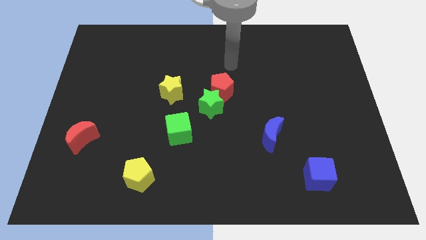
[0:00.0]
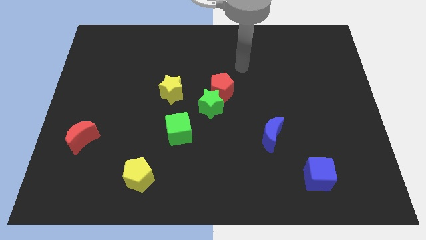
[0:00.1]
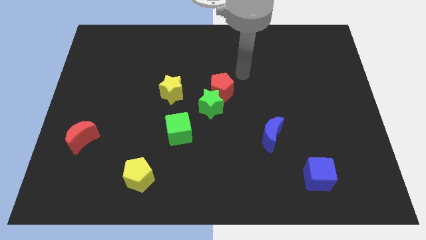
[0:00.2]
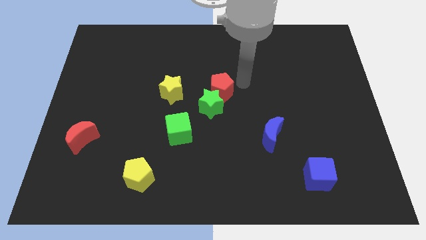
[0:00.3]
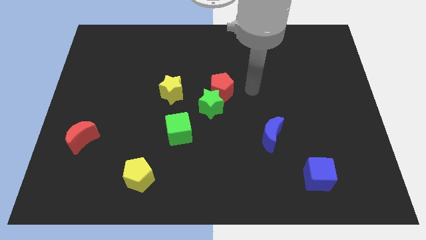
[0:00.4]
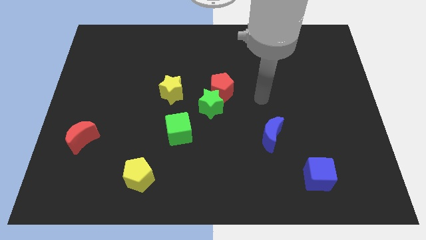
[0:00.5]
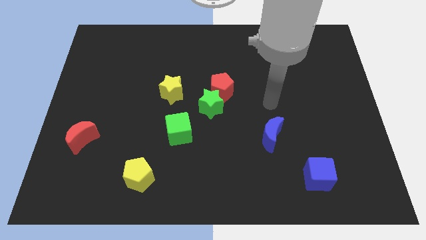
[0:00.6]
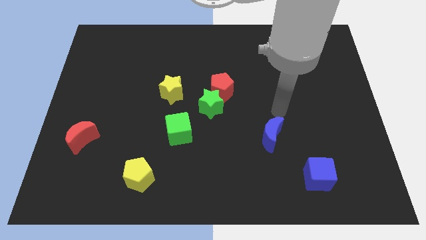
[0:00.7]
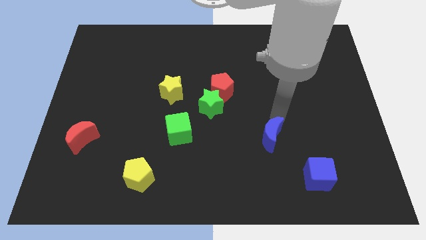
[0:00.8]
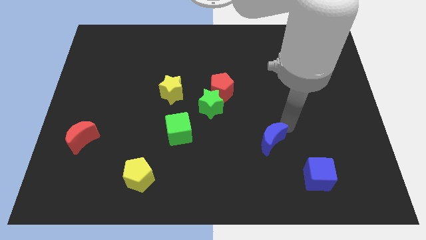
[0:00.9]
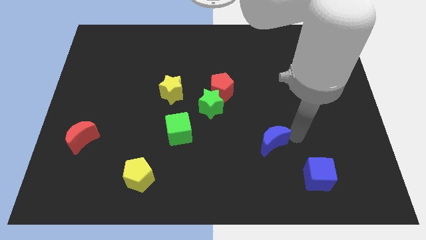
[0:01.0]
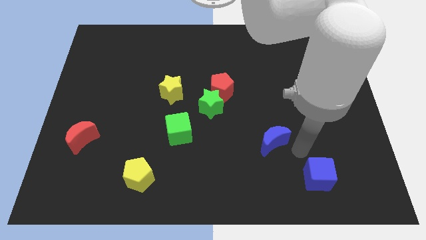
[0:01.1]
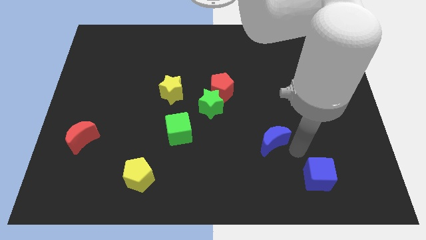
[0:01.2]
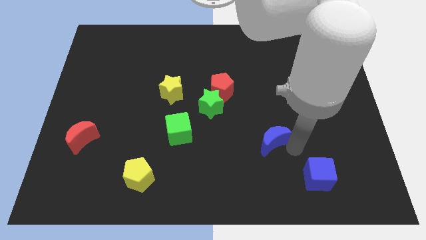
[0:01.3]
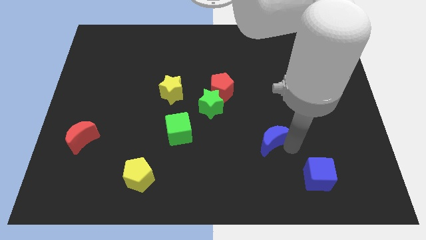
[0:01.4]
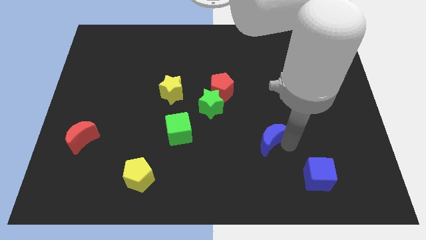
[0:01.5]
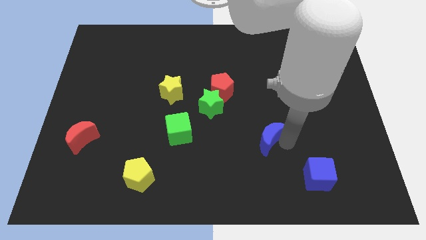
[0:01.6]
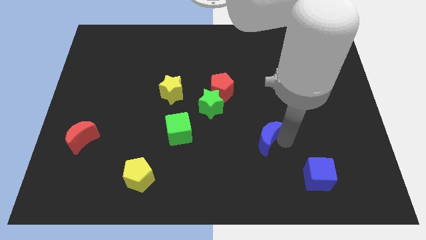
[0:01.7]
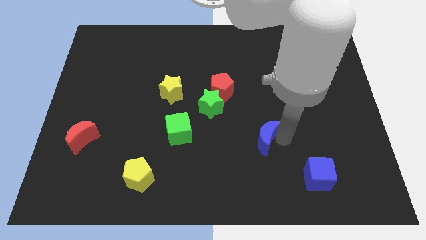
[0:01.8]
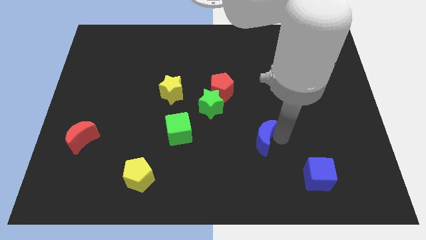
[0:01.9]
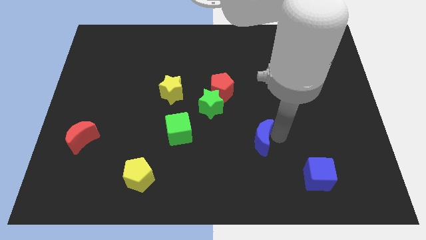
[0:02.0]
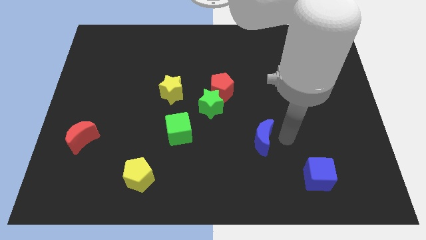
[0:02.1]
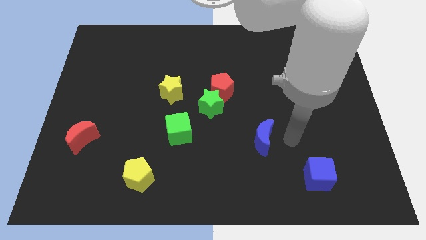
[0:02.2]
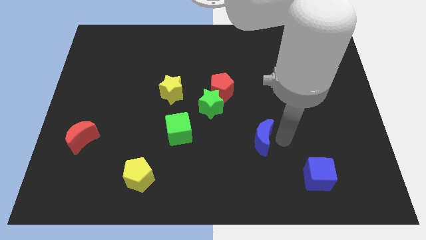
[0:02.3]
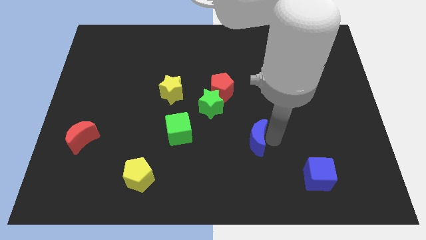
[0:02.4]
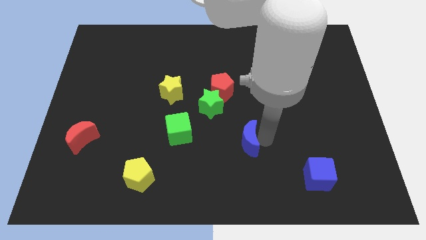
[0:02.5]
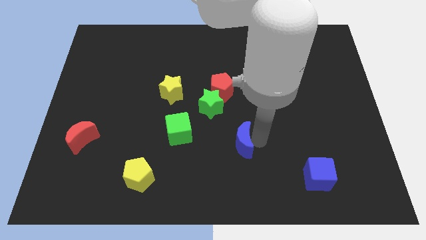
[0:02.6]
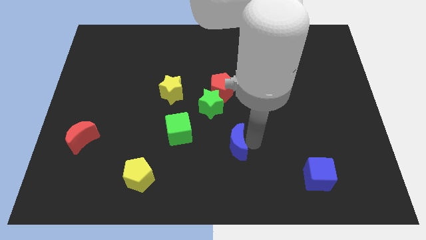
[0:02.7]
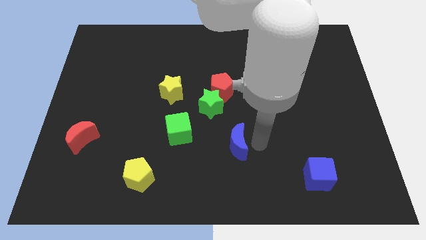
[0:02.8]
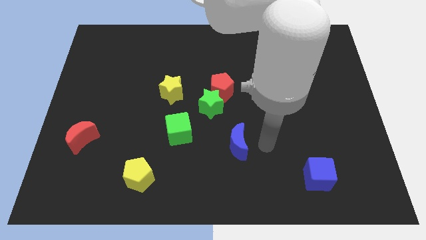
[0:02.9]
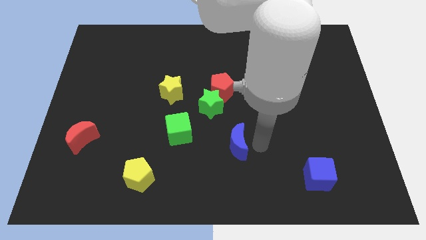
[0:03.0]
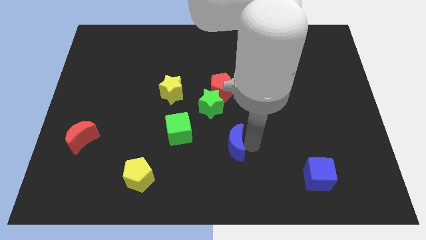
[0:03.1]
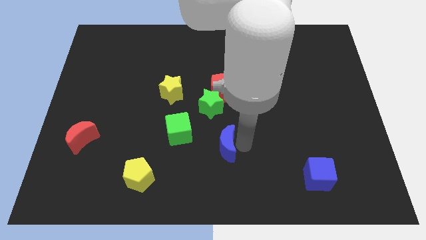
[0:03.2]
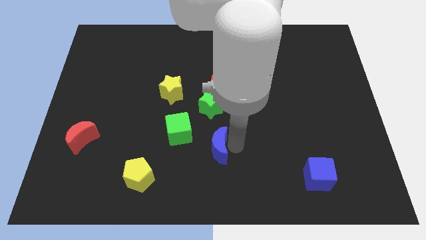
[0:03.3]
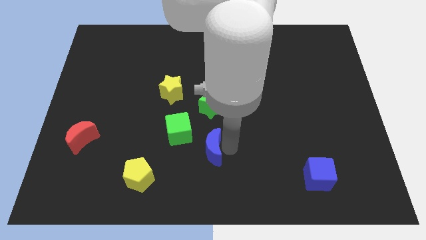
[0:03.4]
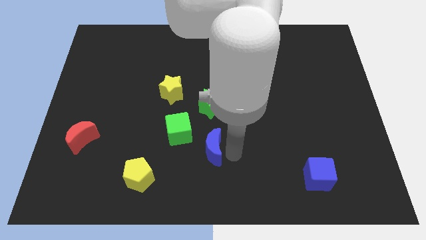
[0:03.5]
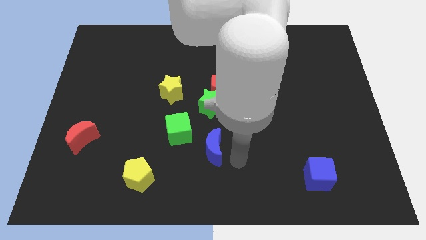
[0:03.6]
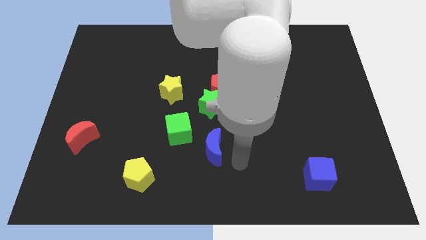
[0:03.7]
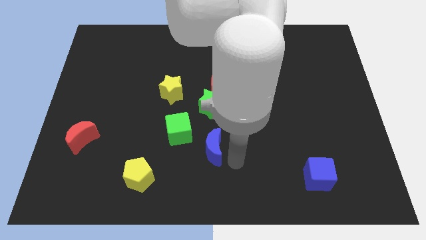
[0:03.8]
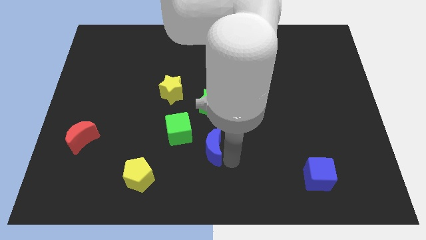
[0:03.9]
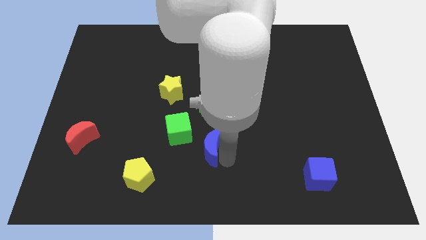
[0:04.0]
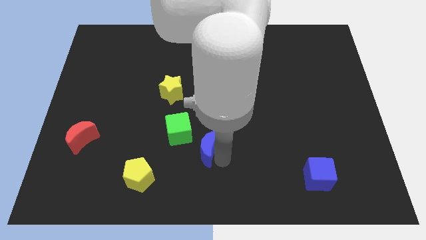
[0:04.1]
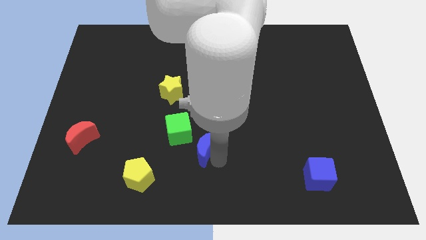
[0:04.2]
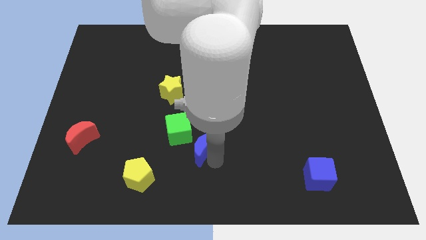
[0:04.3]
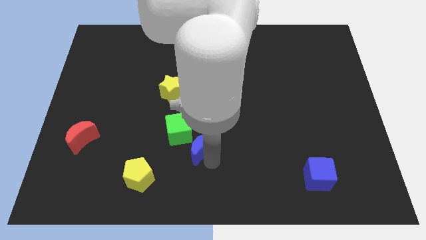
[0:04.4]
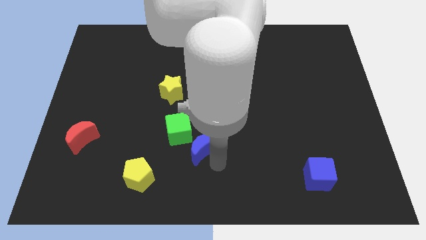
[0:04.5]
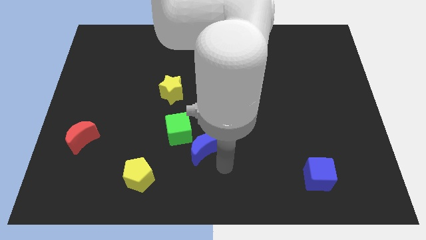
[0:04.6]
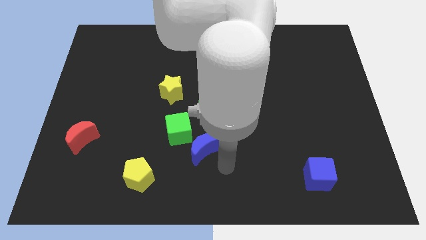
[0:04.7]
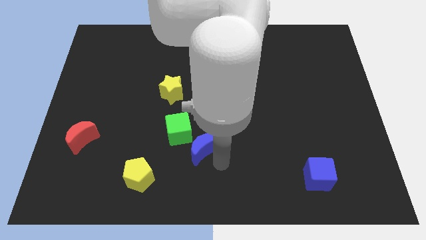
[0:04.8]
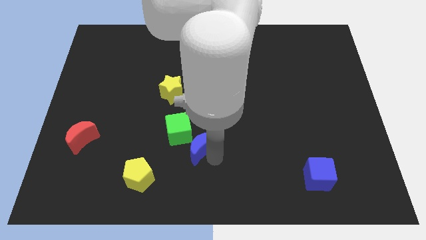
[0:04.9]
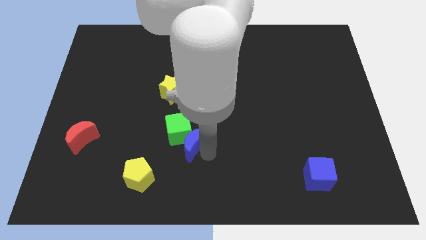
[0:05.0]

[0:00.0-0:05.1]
move the blue moon next to the green cube

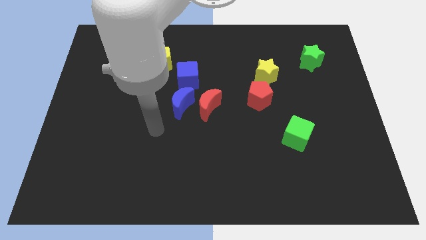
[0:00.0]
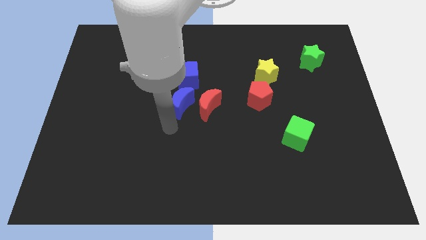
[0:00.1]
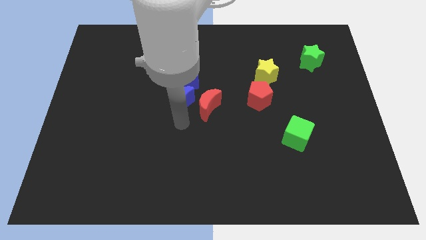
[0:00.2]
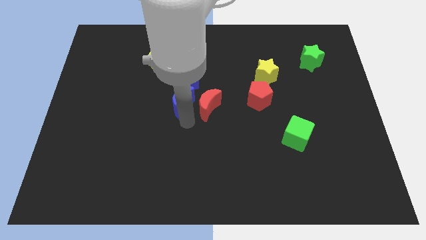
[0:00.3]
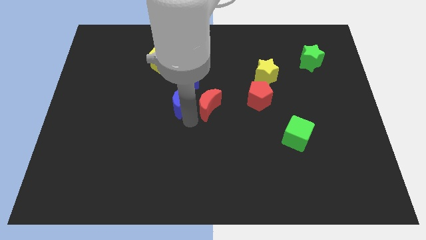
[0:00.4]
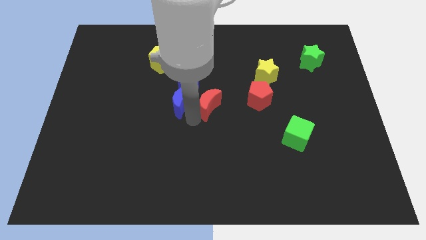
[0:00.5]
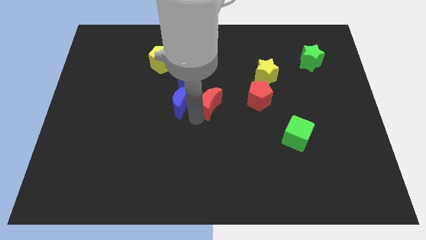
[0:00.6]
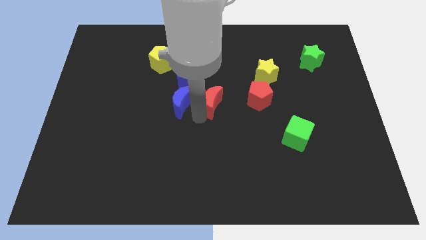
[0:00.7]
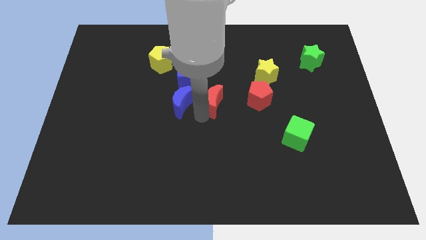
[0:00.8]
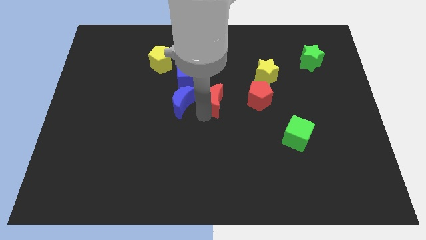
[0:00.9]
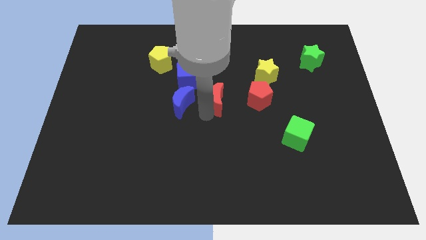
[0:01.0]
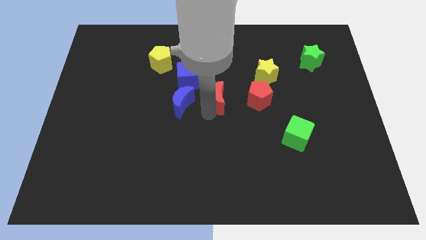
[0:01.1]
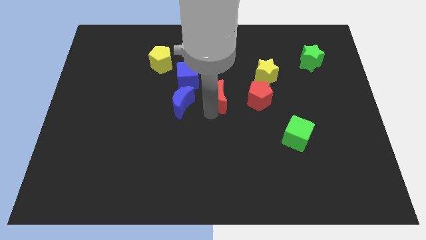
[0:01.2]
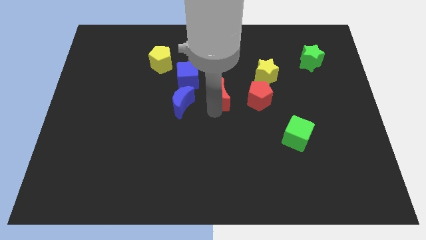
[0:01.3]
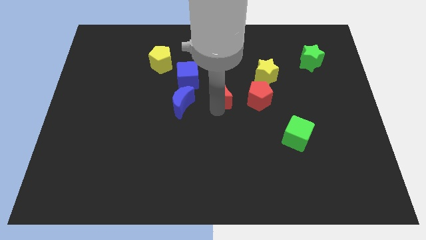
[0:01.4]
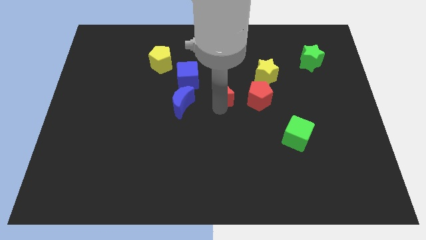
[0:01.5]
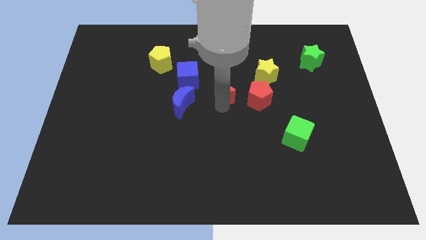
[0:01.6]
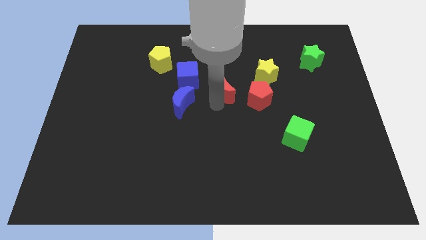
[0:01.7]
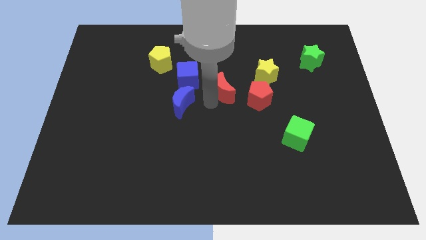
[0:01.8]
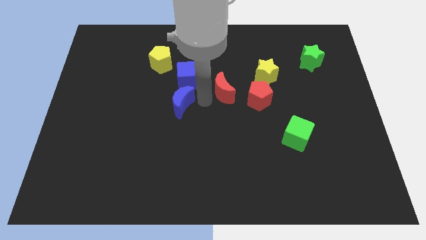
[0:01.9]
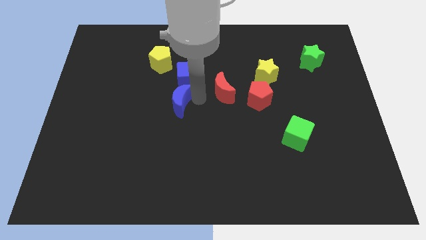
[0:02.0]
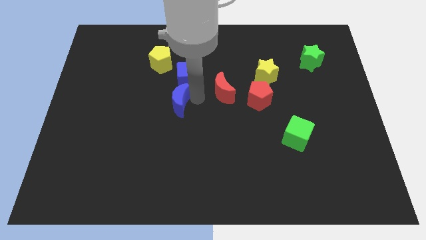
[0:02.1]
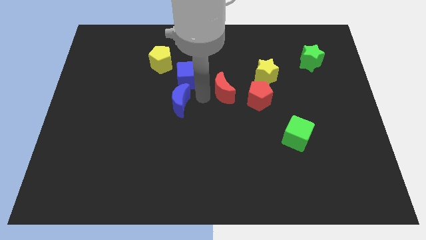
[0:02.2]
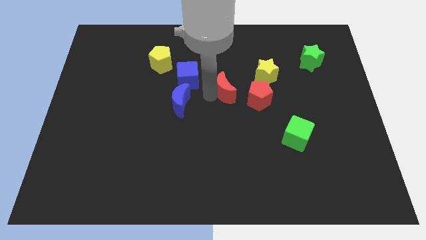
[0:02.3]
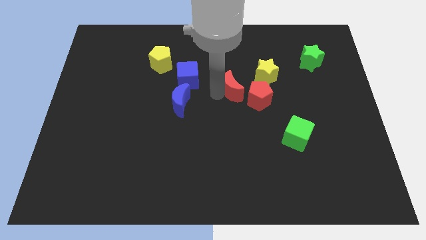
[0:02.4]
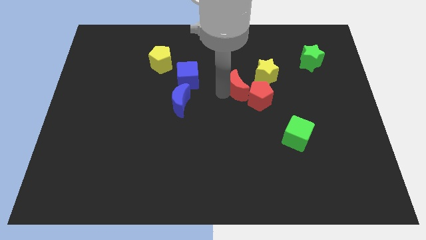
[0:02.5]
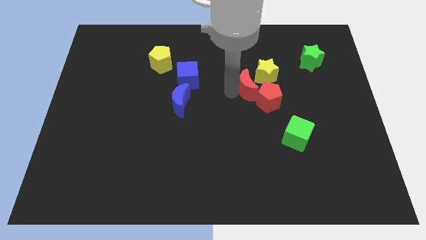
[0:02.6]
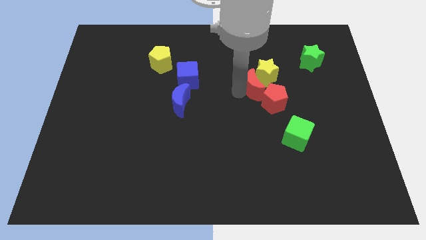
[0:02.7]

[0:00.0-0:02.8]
move the red moon close to the yellow star
